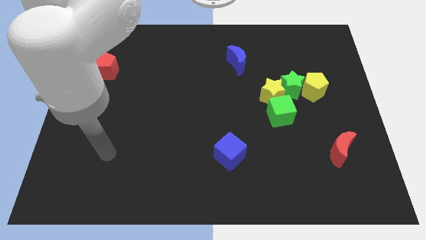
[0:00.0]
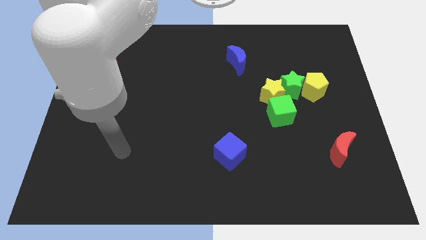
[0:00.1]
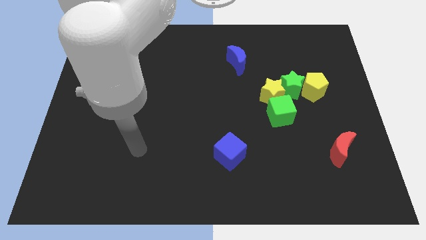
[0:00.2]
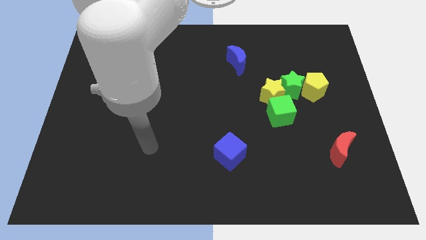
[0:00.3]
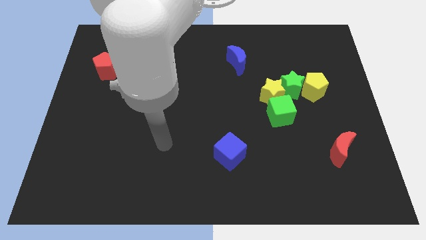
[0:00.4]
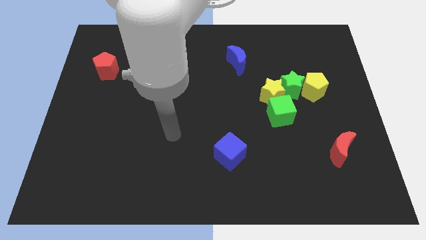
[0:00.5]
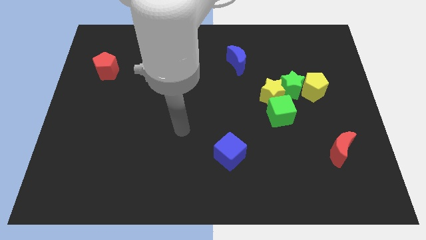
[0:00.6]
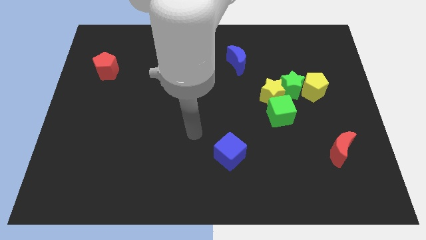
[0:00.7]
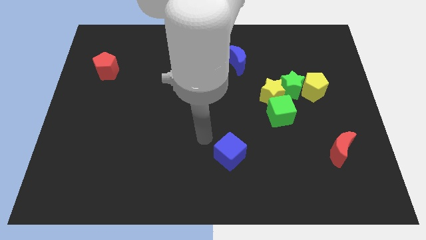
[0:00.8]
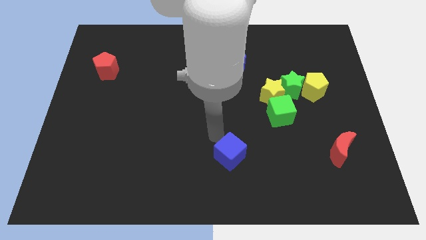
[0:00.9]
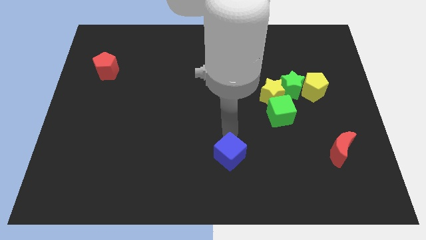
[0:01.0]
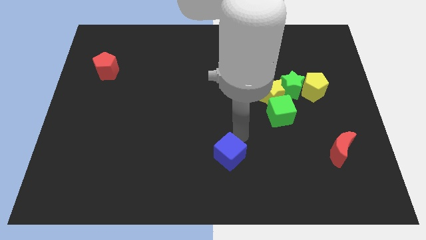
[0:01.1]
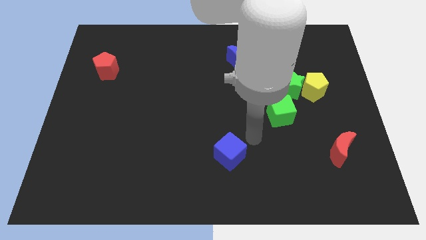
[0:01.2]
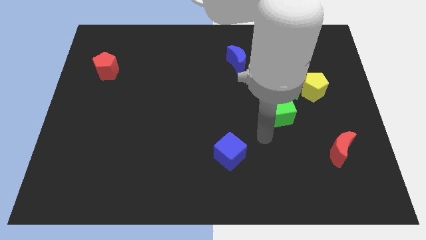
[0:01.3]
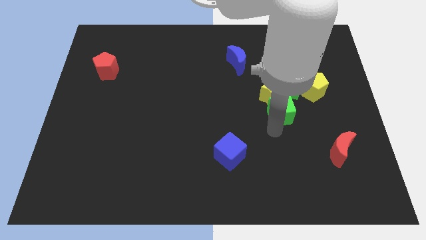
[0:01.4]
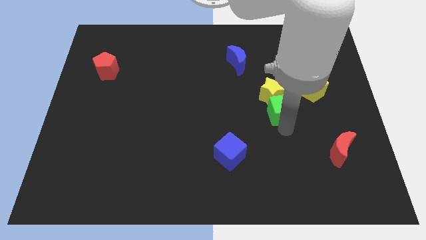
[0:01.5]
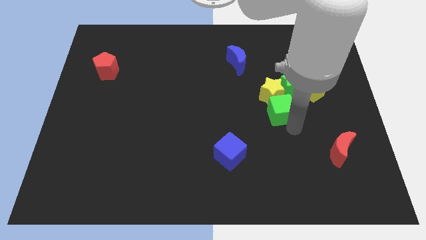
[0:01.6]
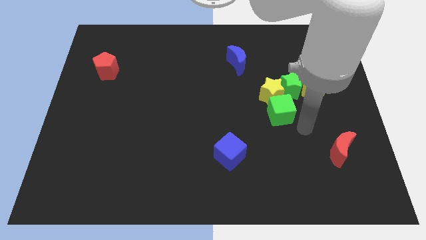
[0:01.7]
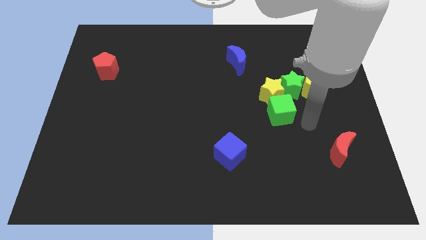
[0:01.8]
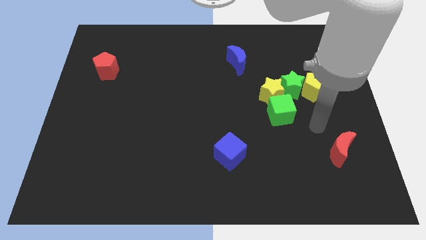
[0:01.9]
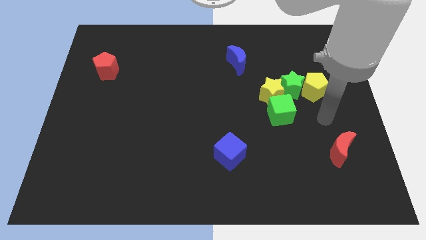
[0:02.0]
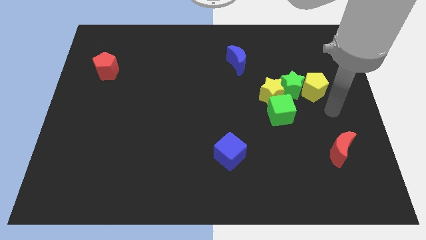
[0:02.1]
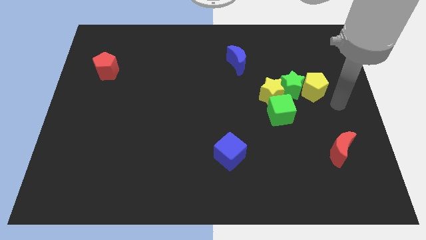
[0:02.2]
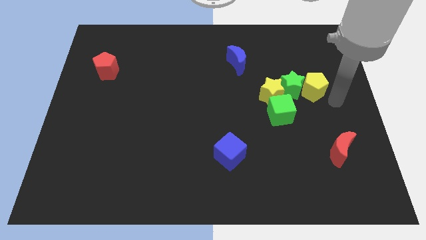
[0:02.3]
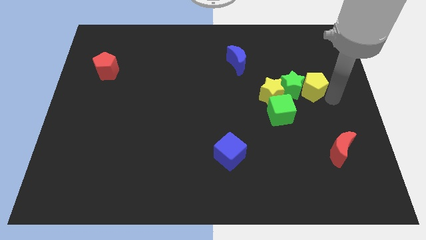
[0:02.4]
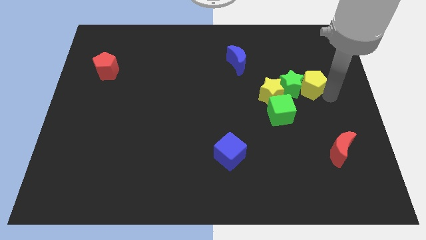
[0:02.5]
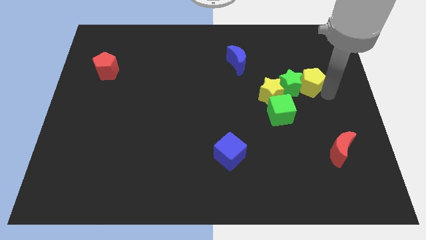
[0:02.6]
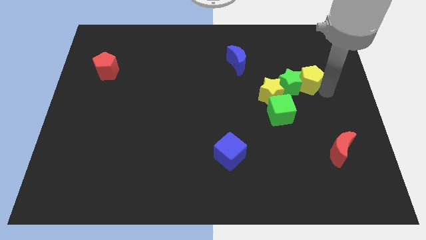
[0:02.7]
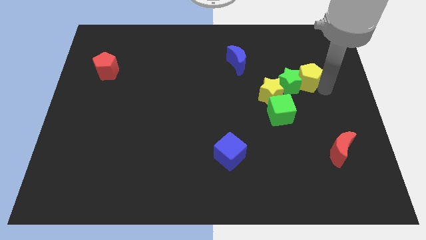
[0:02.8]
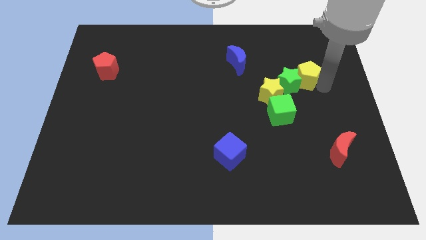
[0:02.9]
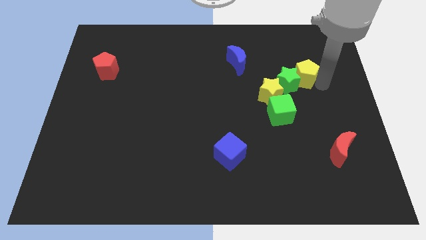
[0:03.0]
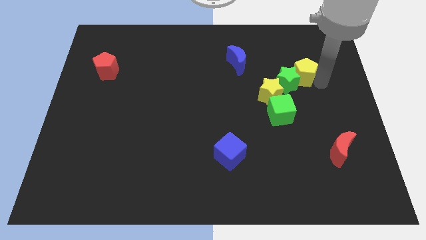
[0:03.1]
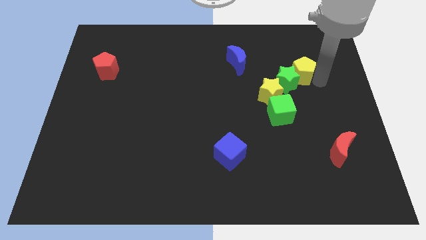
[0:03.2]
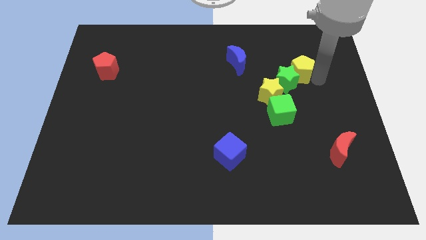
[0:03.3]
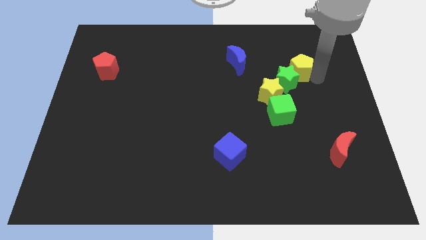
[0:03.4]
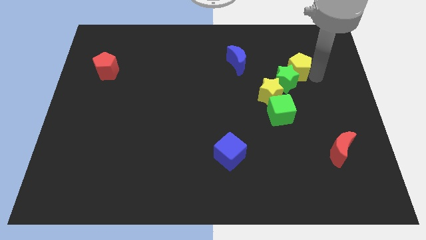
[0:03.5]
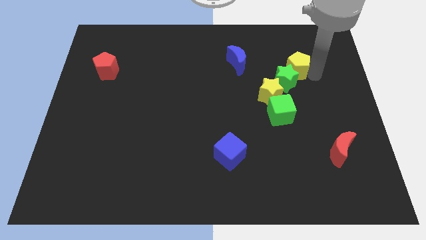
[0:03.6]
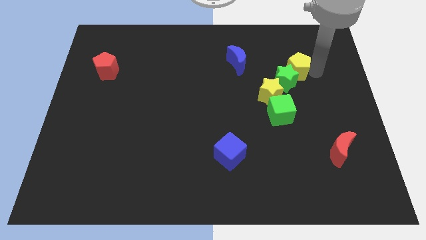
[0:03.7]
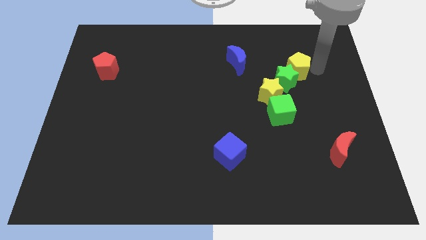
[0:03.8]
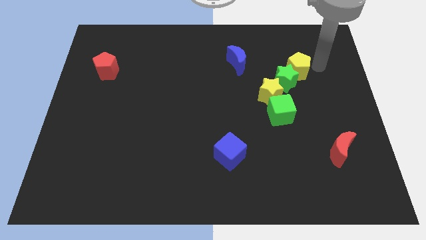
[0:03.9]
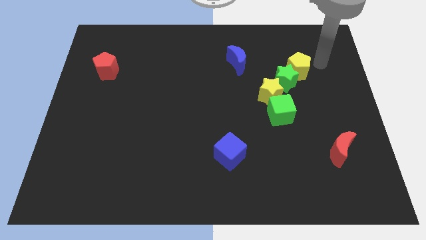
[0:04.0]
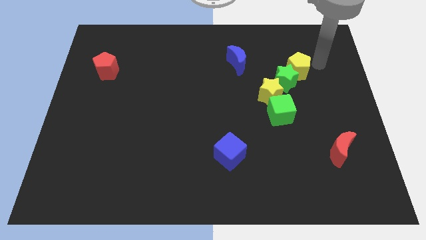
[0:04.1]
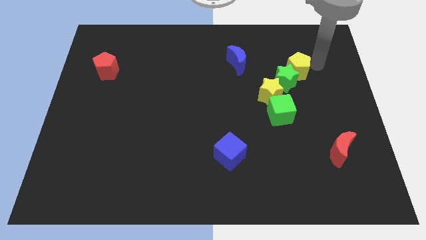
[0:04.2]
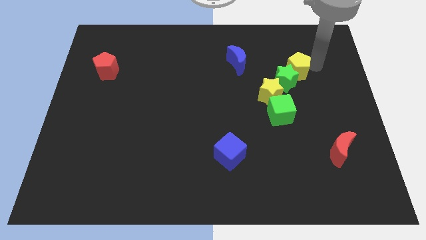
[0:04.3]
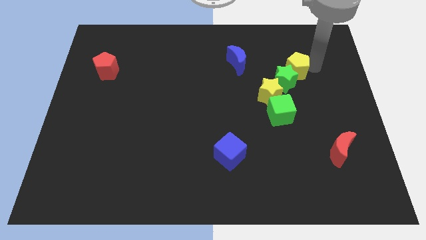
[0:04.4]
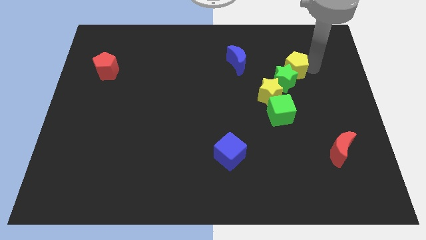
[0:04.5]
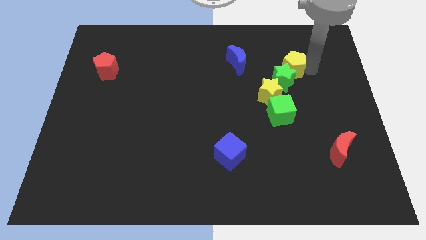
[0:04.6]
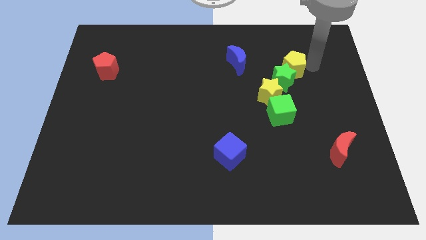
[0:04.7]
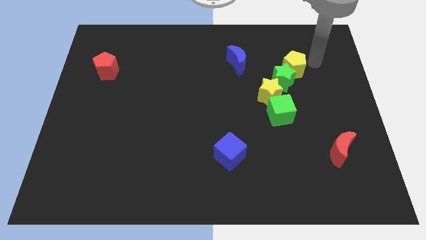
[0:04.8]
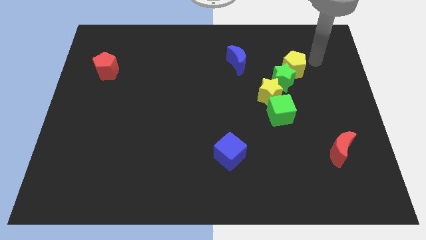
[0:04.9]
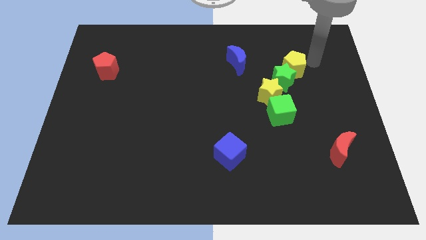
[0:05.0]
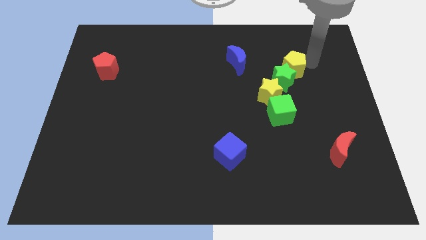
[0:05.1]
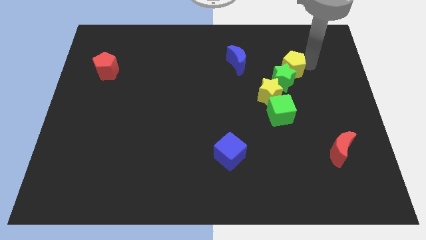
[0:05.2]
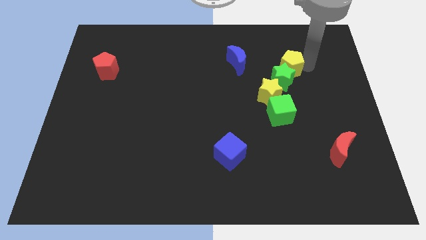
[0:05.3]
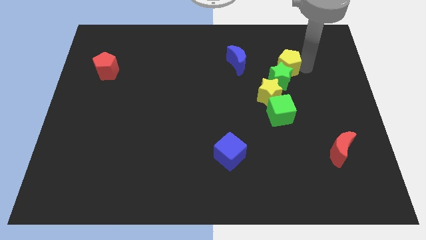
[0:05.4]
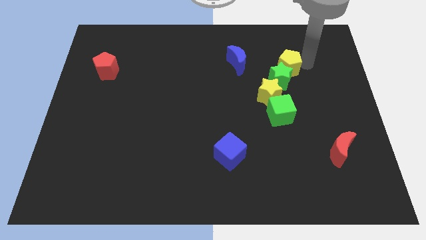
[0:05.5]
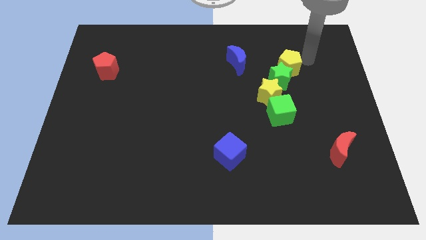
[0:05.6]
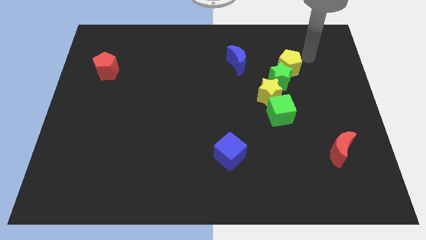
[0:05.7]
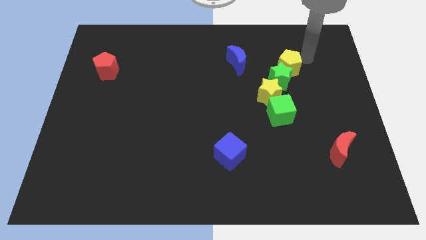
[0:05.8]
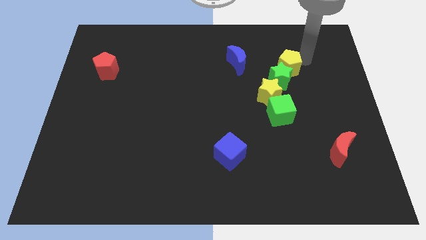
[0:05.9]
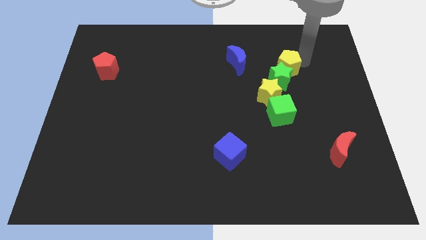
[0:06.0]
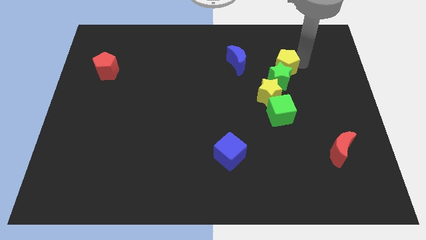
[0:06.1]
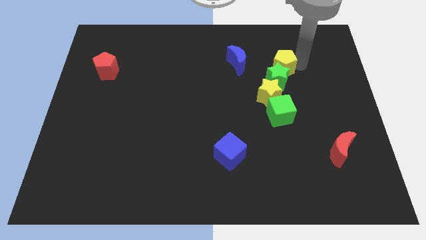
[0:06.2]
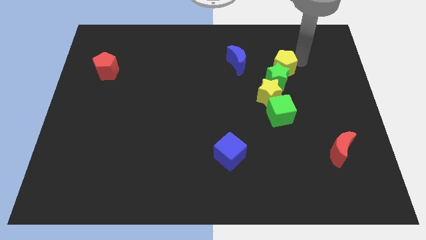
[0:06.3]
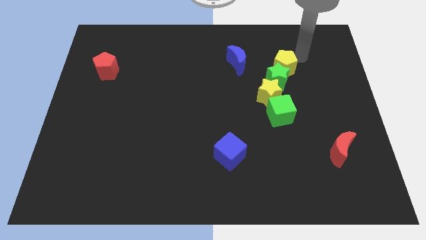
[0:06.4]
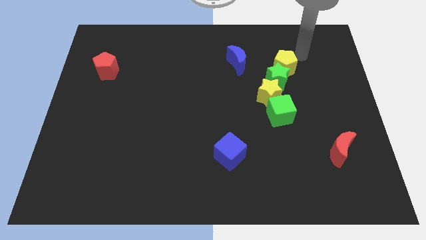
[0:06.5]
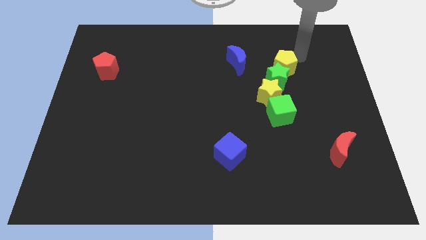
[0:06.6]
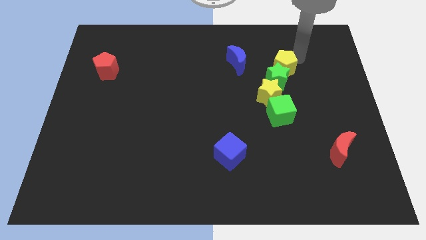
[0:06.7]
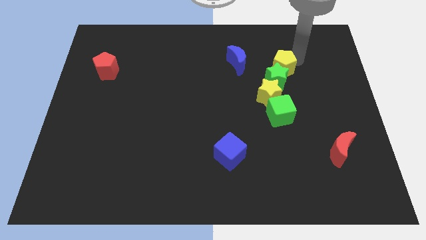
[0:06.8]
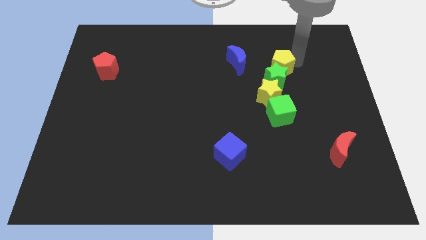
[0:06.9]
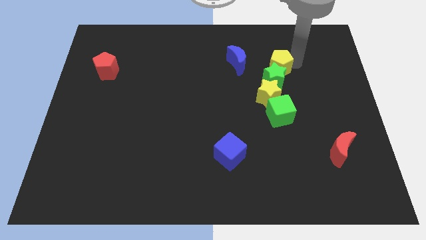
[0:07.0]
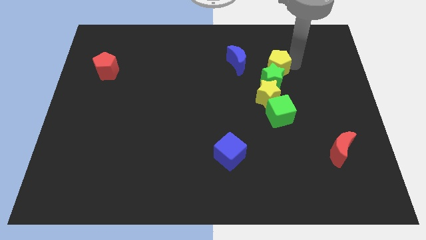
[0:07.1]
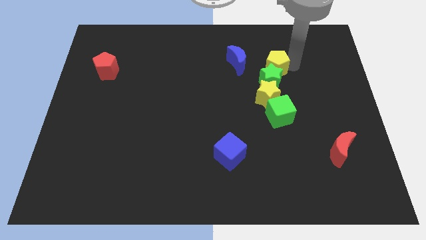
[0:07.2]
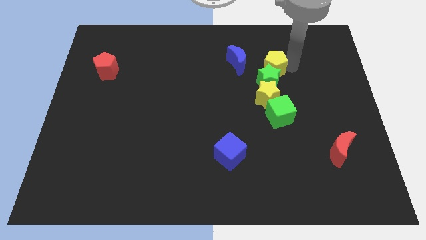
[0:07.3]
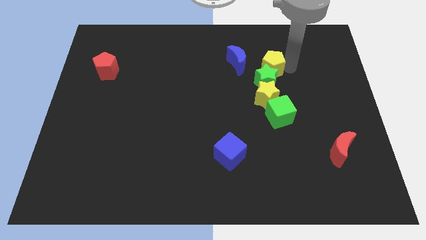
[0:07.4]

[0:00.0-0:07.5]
slightly move the yellow pentagon to the left

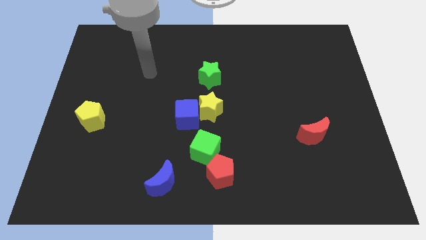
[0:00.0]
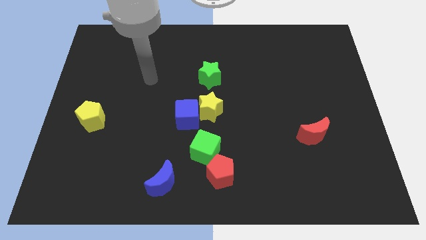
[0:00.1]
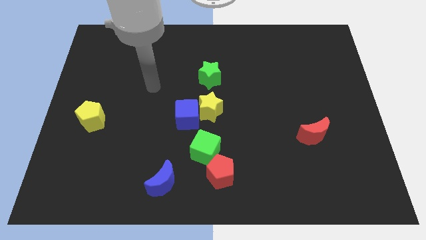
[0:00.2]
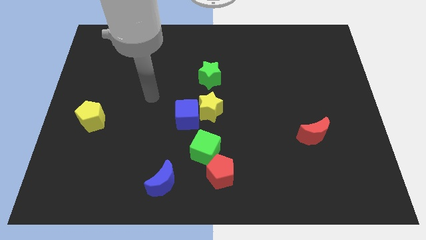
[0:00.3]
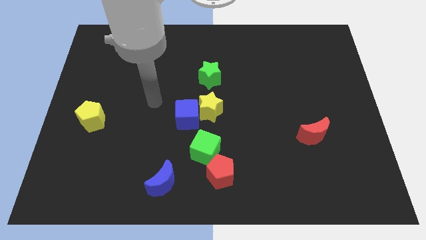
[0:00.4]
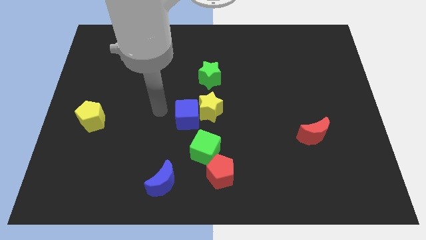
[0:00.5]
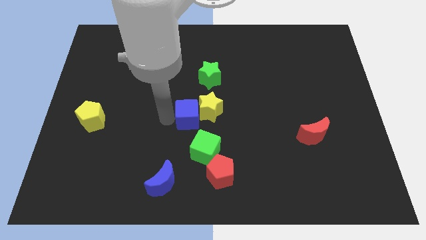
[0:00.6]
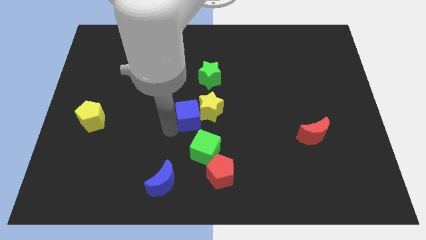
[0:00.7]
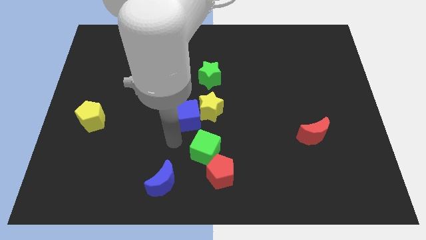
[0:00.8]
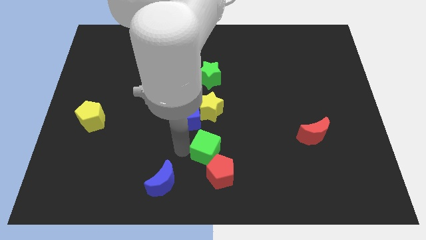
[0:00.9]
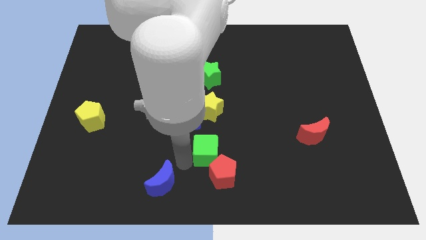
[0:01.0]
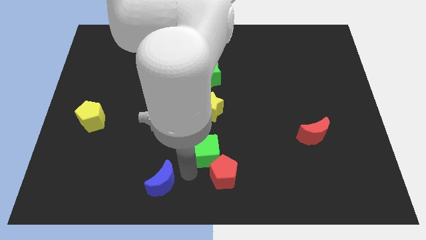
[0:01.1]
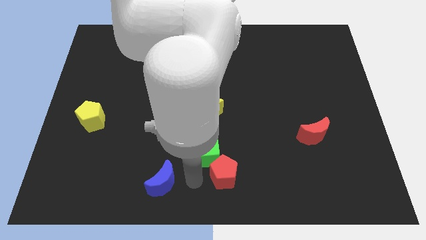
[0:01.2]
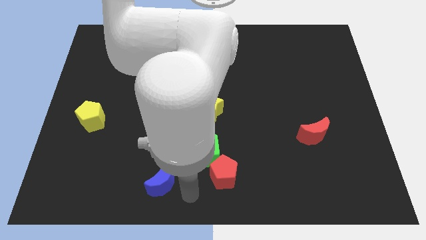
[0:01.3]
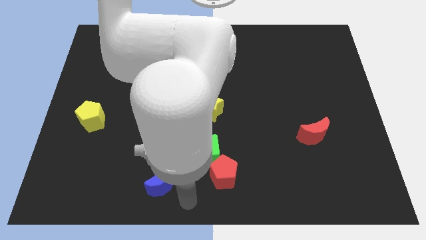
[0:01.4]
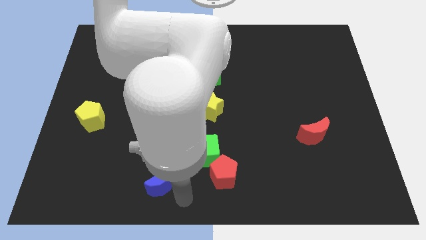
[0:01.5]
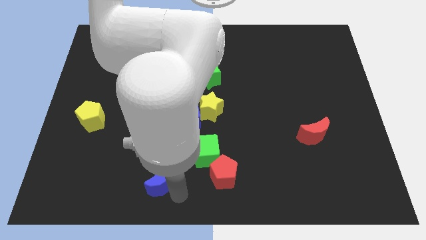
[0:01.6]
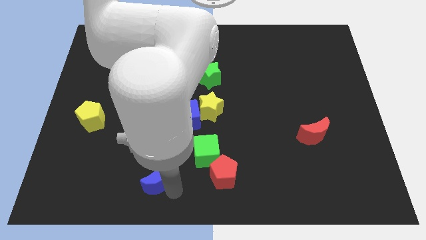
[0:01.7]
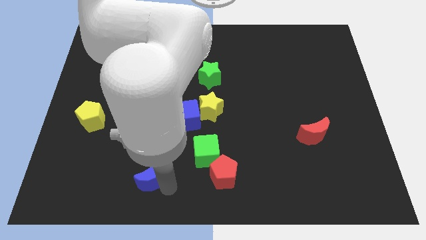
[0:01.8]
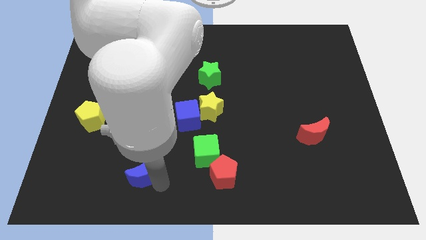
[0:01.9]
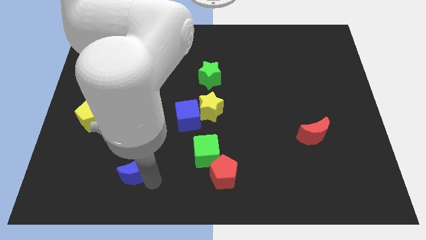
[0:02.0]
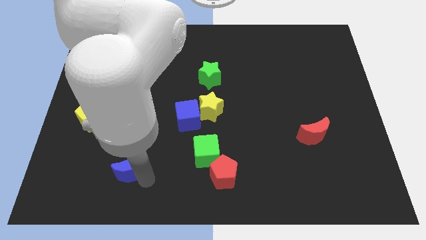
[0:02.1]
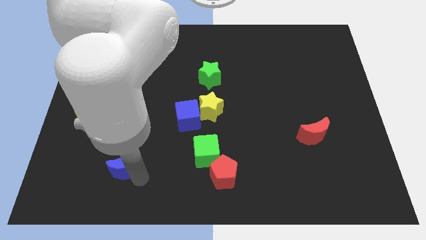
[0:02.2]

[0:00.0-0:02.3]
slightly move the blue moon up and left diagonally
